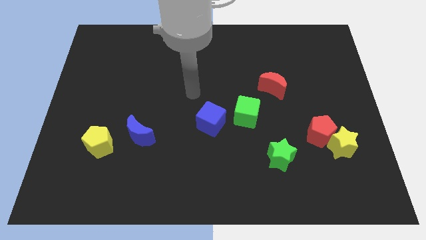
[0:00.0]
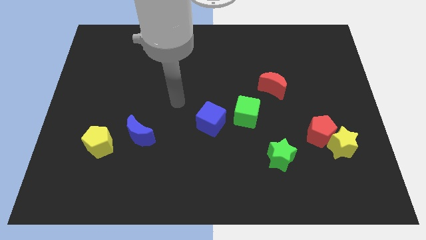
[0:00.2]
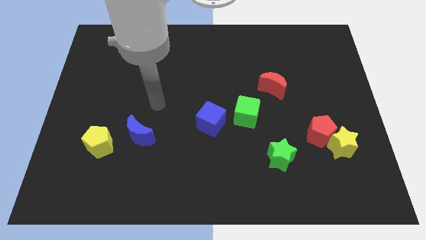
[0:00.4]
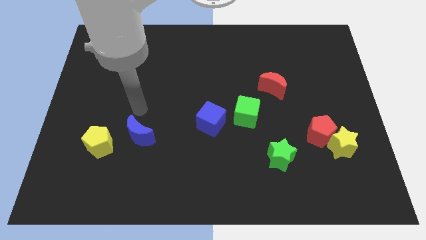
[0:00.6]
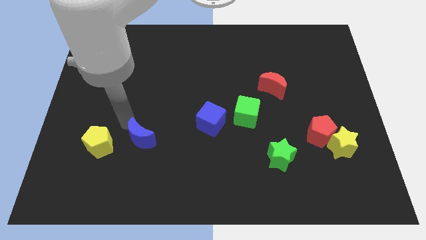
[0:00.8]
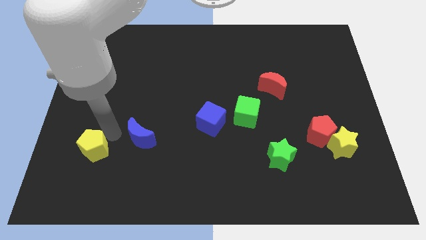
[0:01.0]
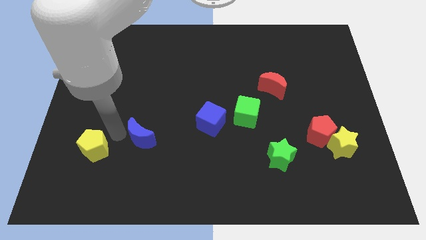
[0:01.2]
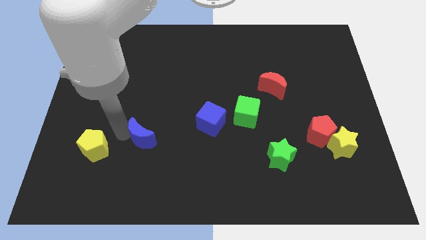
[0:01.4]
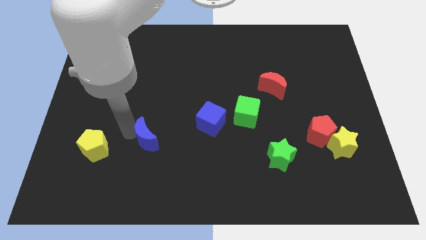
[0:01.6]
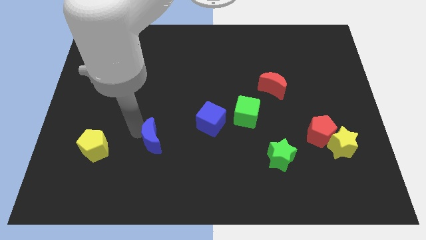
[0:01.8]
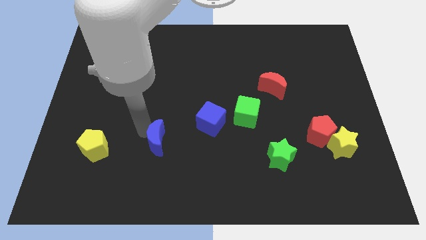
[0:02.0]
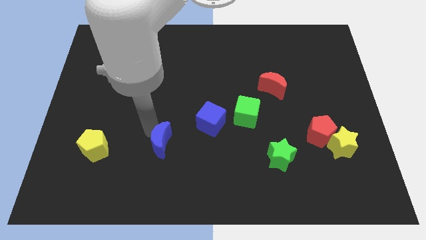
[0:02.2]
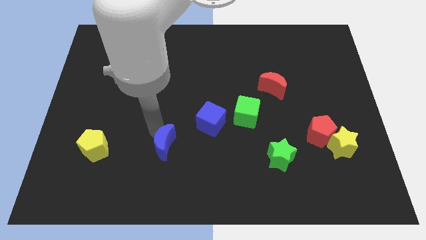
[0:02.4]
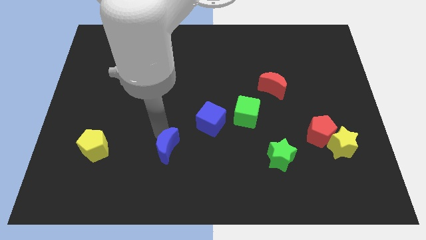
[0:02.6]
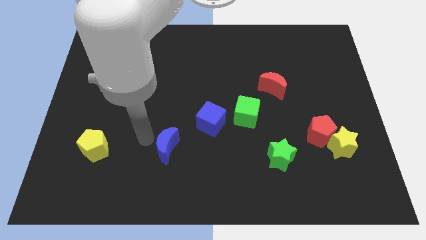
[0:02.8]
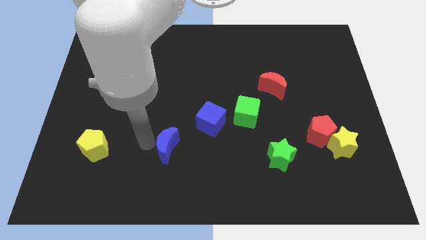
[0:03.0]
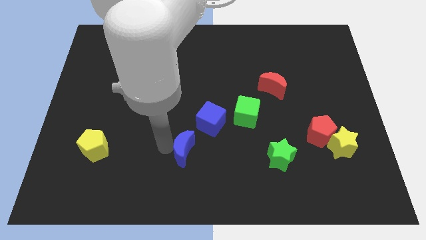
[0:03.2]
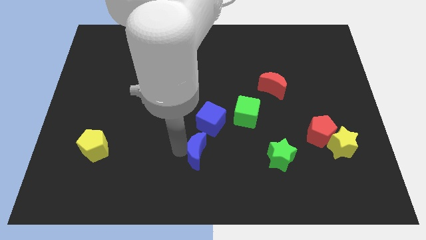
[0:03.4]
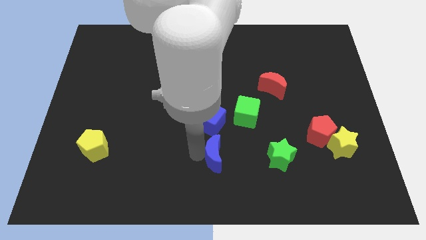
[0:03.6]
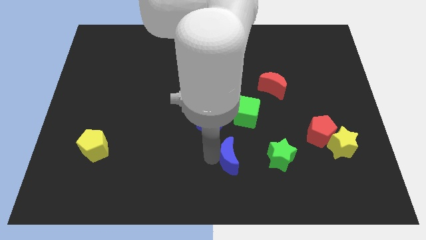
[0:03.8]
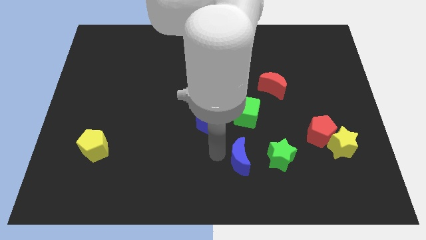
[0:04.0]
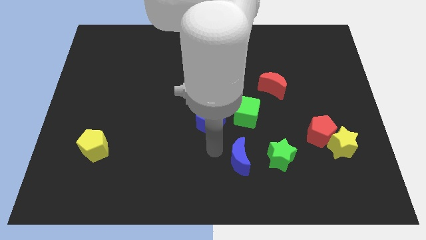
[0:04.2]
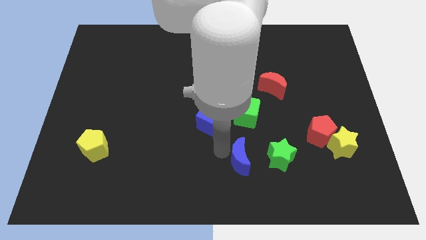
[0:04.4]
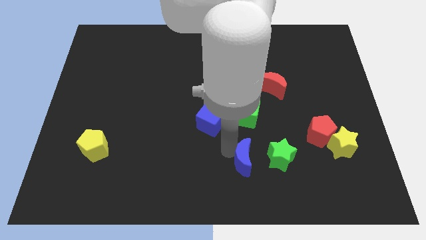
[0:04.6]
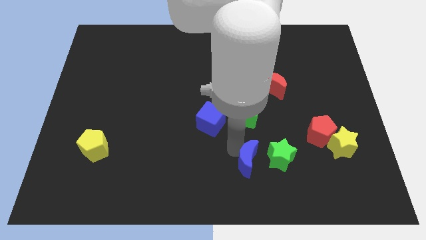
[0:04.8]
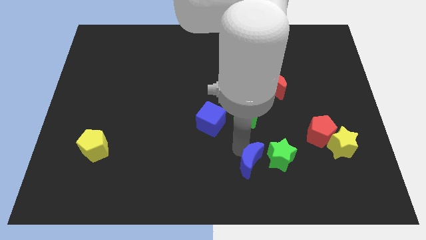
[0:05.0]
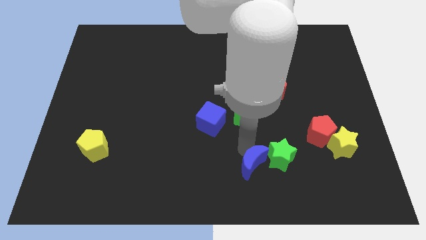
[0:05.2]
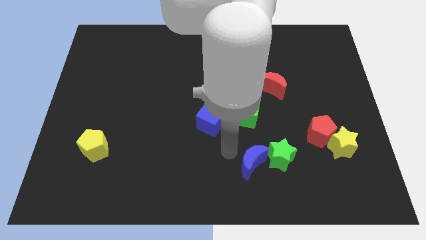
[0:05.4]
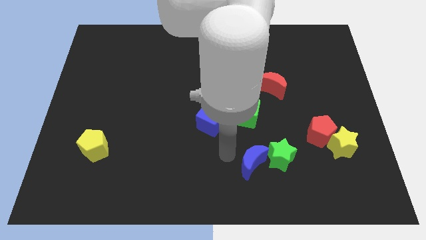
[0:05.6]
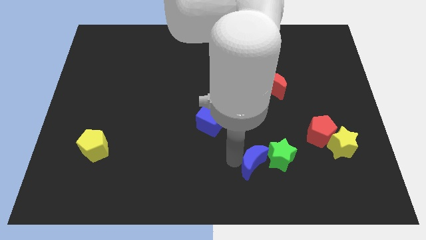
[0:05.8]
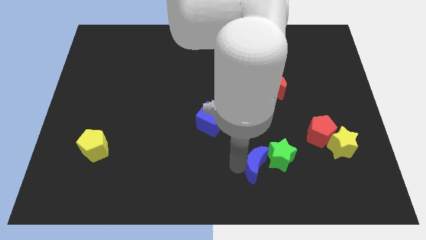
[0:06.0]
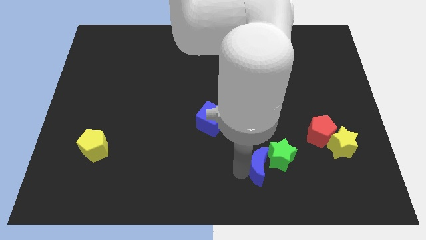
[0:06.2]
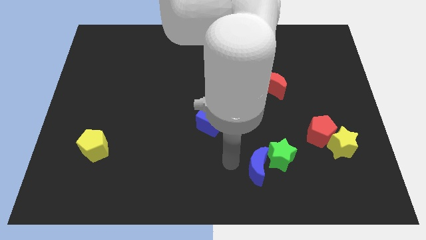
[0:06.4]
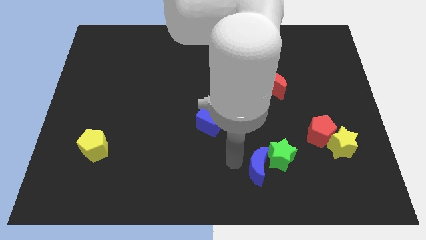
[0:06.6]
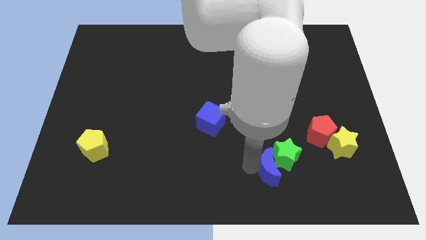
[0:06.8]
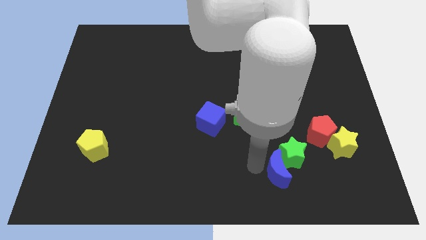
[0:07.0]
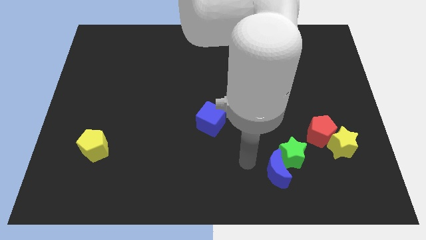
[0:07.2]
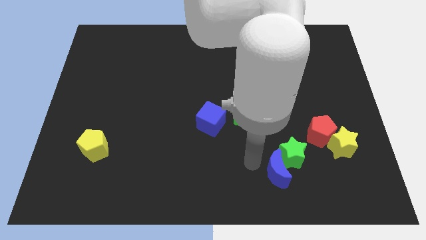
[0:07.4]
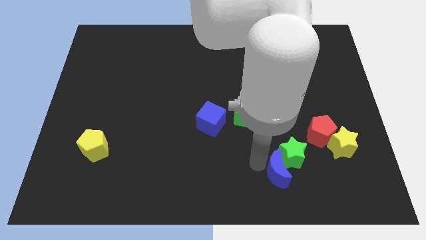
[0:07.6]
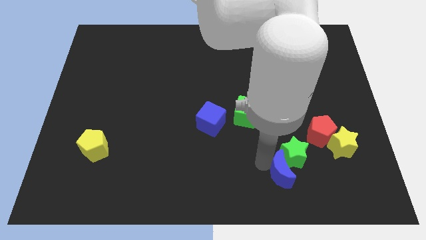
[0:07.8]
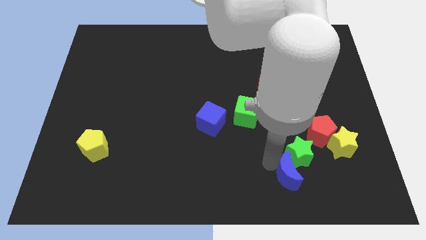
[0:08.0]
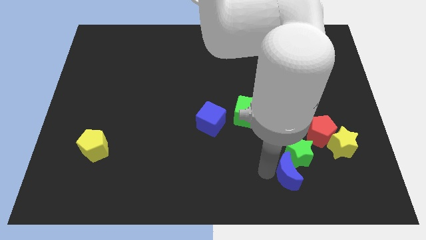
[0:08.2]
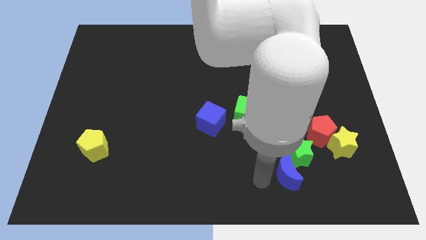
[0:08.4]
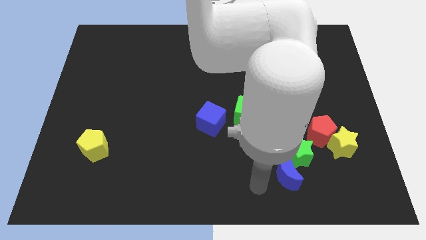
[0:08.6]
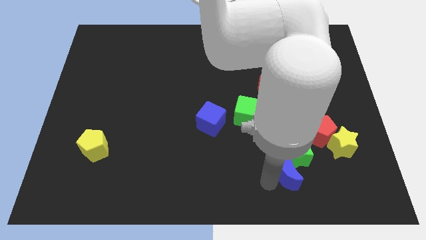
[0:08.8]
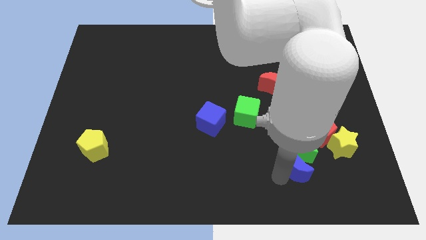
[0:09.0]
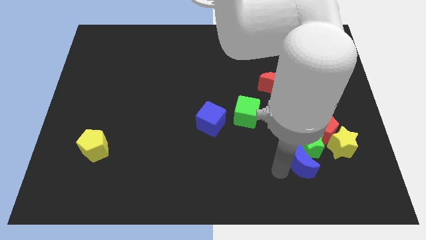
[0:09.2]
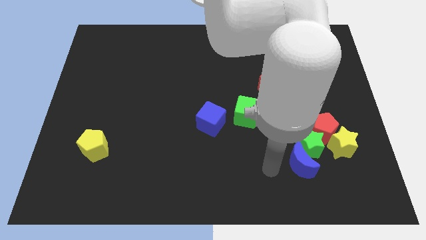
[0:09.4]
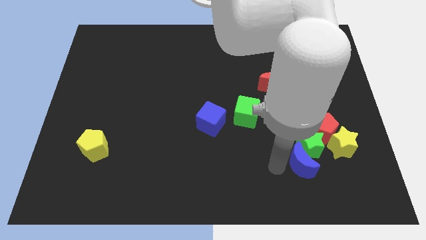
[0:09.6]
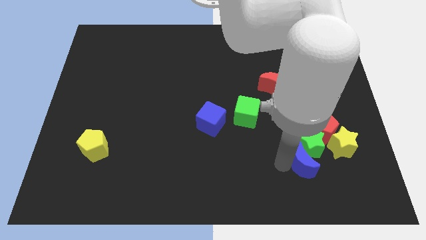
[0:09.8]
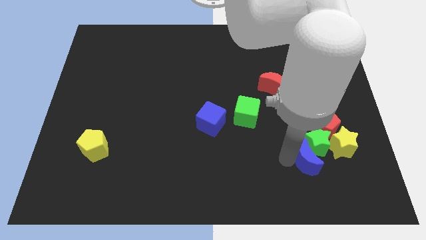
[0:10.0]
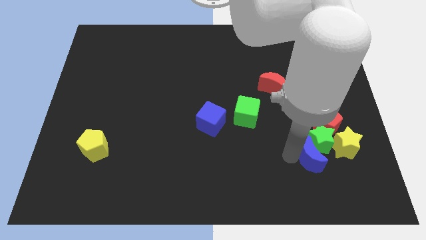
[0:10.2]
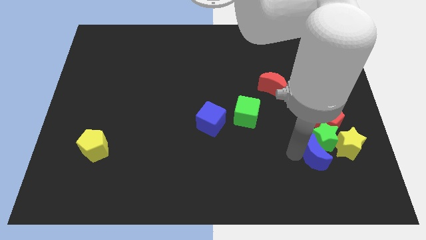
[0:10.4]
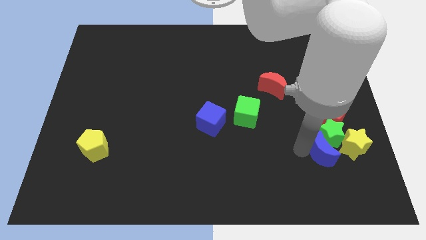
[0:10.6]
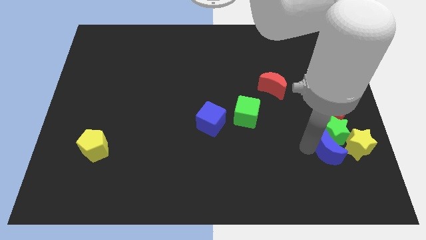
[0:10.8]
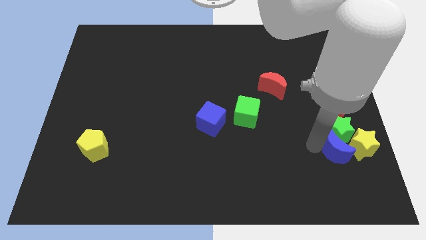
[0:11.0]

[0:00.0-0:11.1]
move the blue moon towards the yellow star

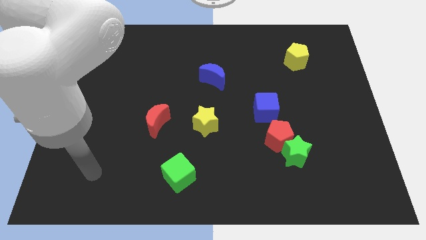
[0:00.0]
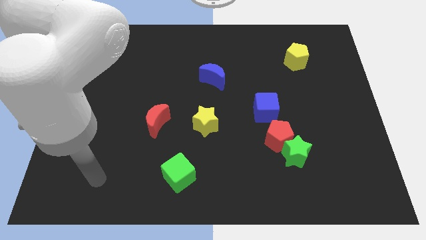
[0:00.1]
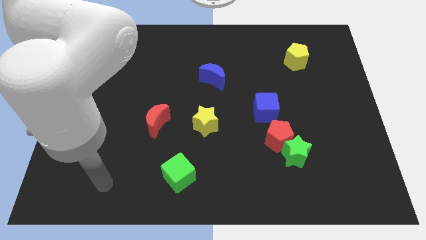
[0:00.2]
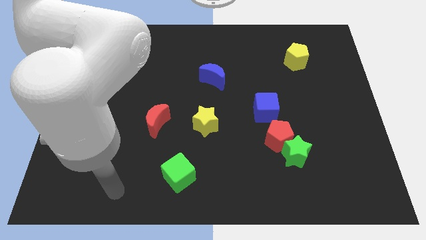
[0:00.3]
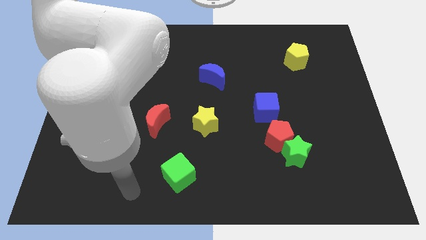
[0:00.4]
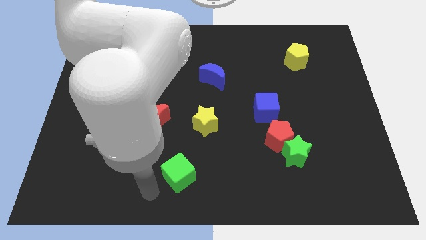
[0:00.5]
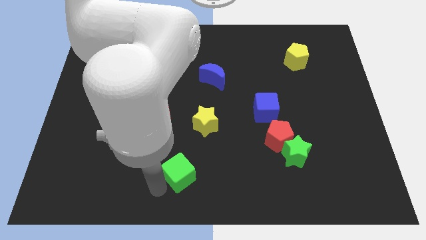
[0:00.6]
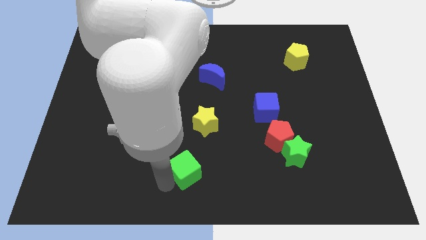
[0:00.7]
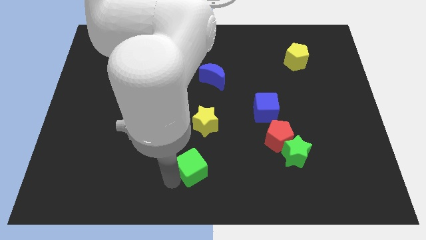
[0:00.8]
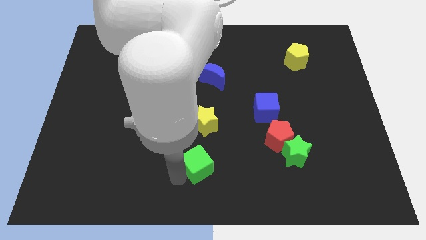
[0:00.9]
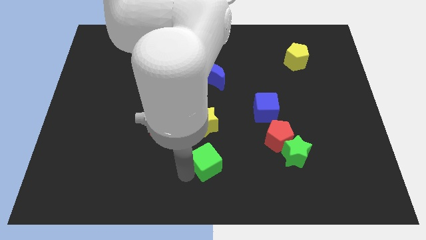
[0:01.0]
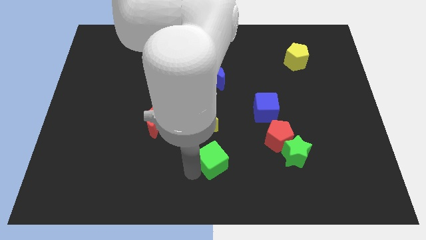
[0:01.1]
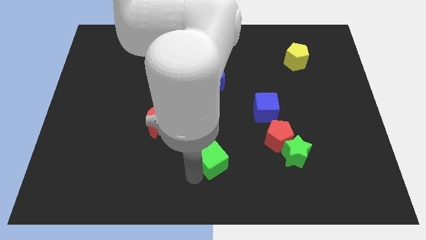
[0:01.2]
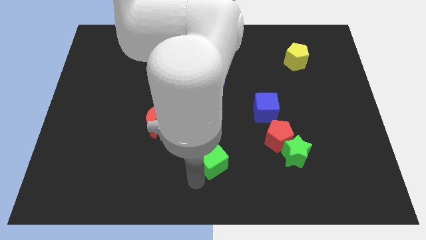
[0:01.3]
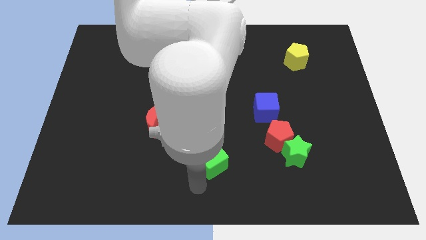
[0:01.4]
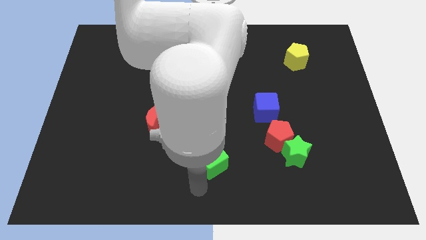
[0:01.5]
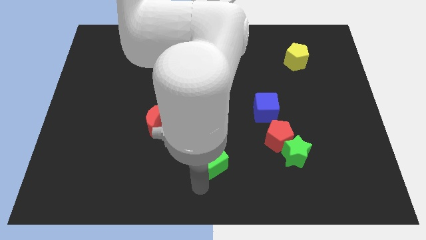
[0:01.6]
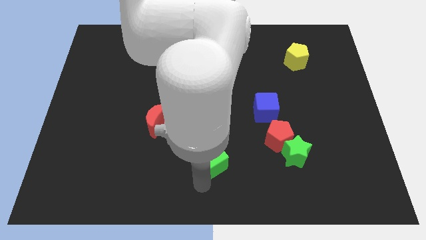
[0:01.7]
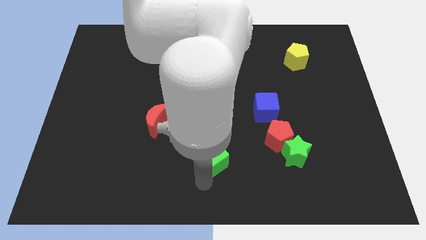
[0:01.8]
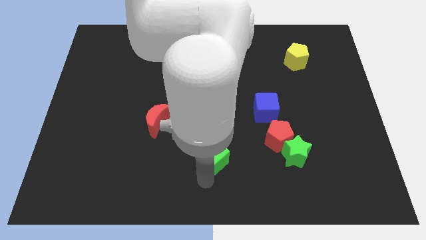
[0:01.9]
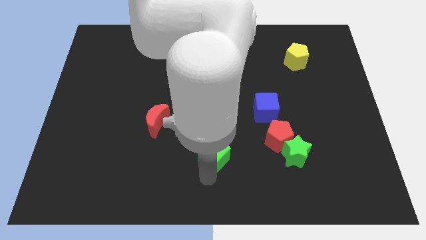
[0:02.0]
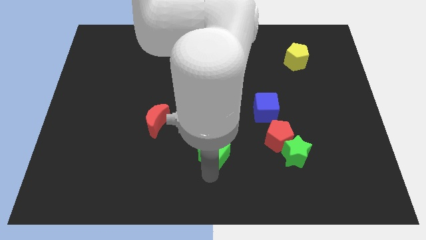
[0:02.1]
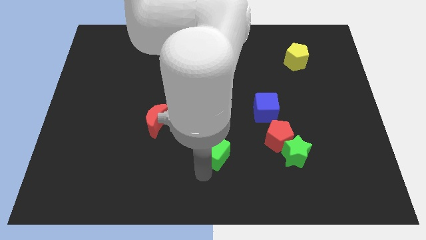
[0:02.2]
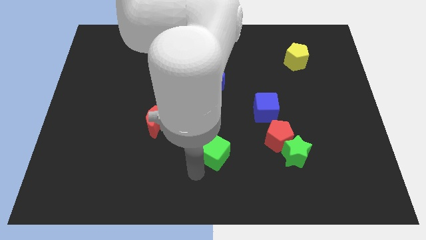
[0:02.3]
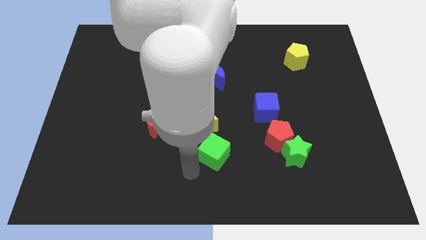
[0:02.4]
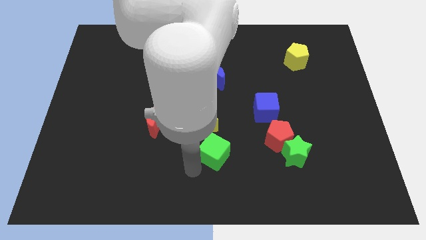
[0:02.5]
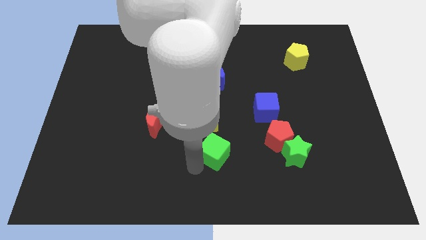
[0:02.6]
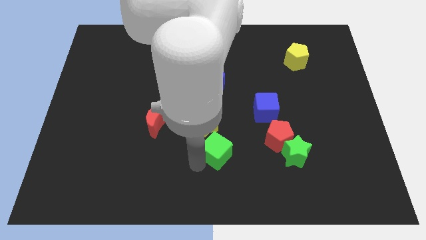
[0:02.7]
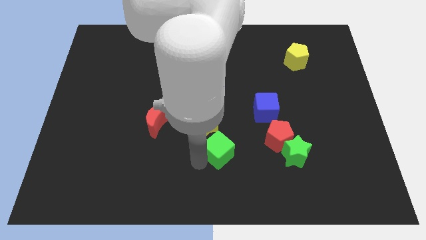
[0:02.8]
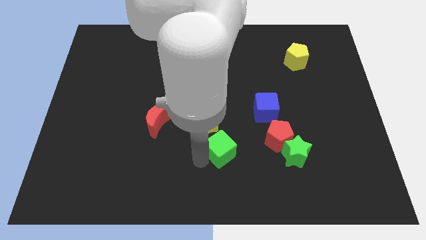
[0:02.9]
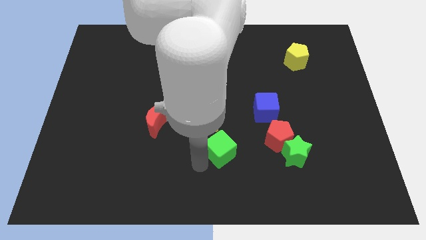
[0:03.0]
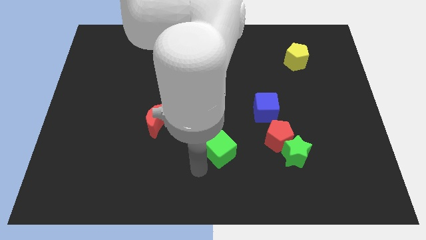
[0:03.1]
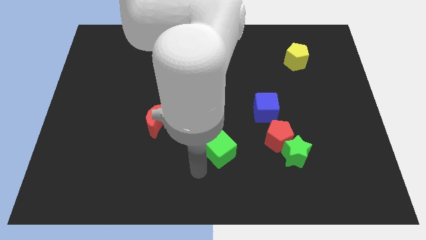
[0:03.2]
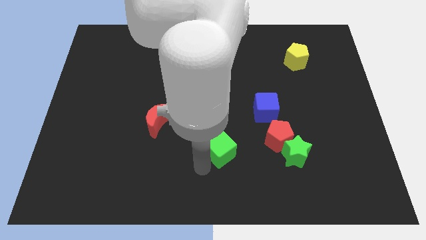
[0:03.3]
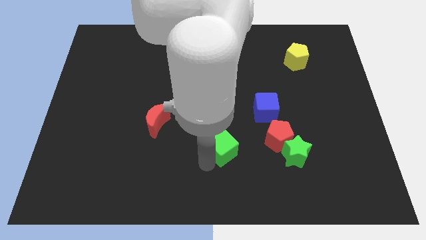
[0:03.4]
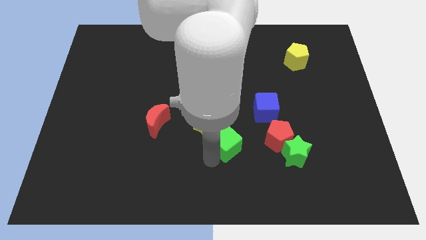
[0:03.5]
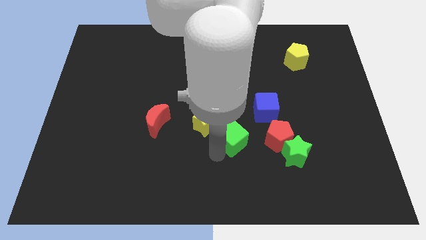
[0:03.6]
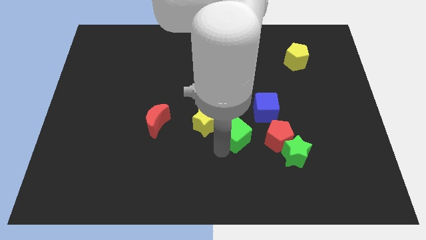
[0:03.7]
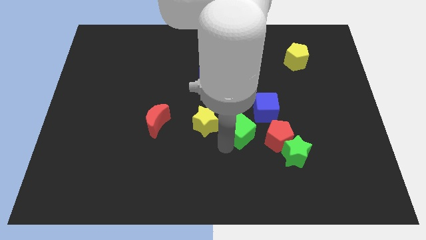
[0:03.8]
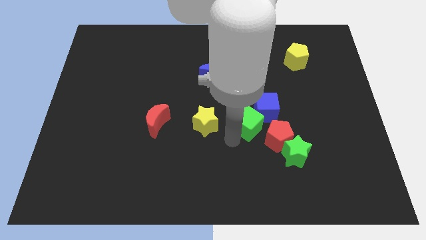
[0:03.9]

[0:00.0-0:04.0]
move the green cube close to the blue cube
